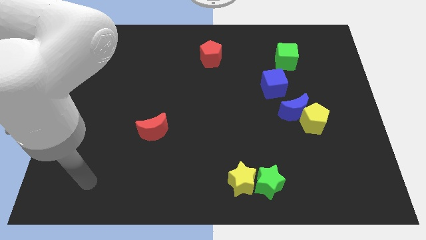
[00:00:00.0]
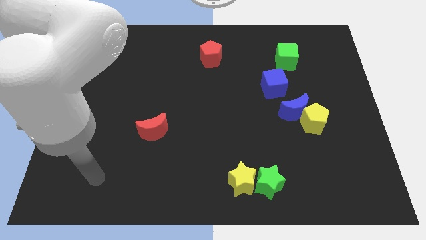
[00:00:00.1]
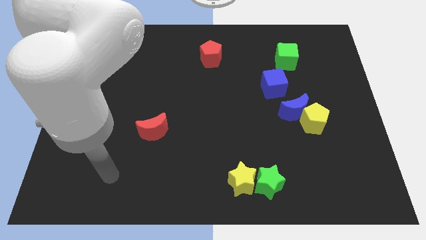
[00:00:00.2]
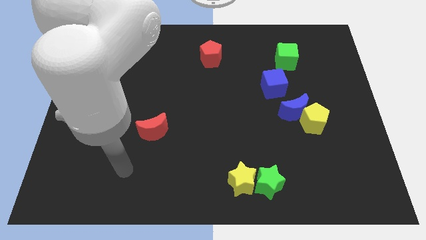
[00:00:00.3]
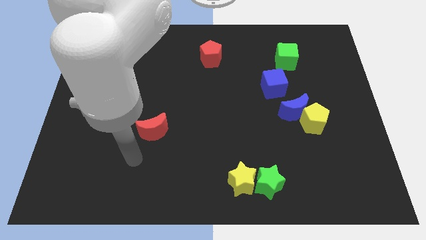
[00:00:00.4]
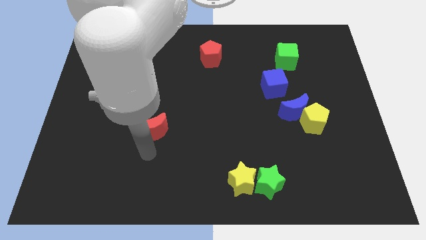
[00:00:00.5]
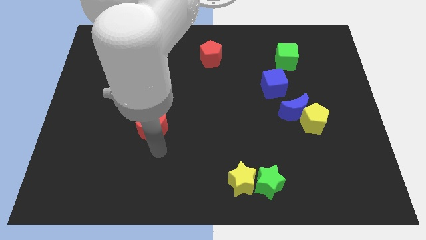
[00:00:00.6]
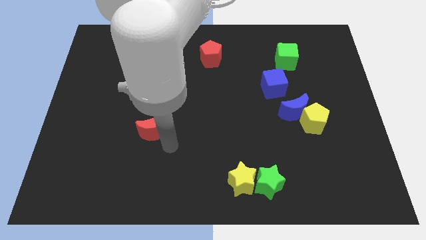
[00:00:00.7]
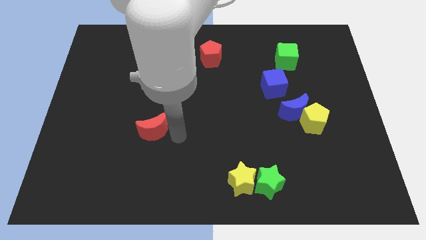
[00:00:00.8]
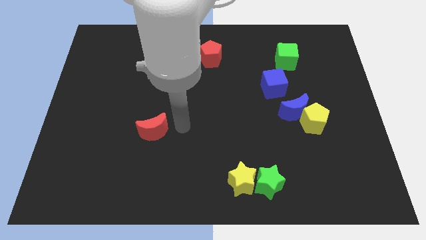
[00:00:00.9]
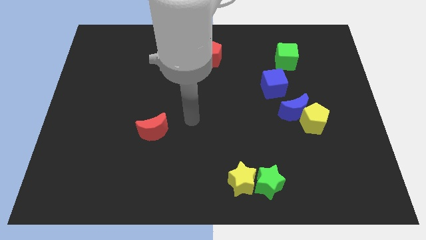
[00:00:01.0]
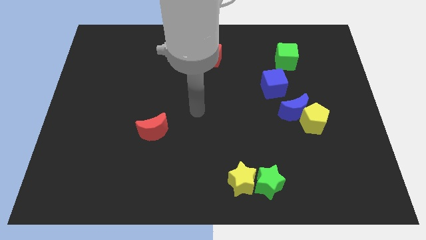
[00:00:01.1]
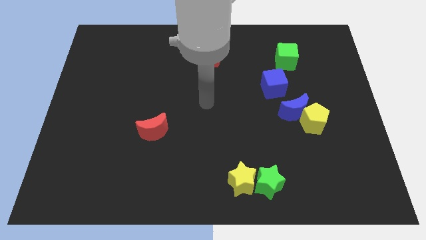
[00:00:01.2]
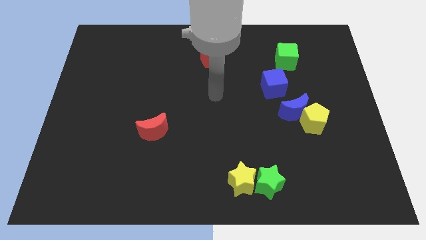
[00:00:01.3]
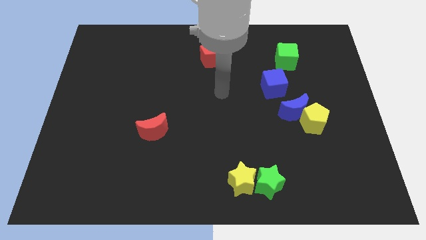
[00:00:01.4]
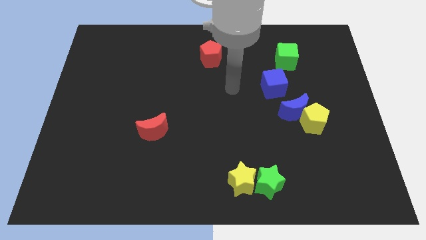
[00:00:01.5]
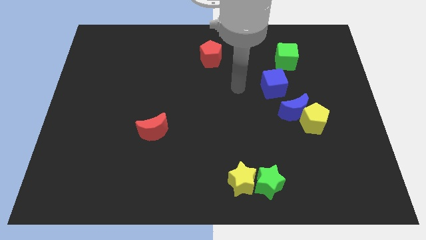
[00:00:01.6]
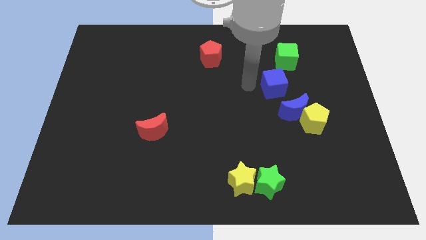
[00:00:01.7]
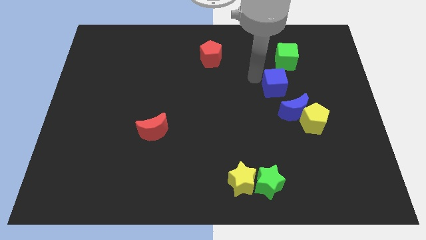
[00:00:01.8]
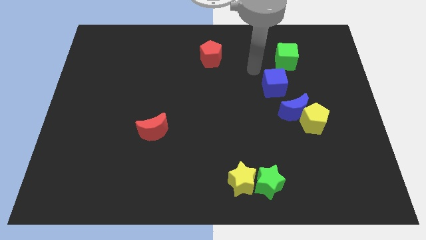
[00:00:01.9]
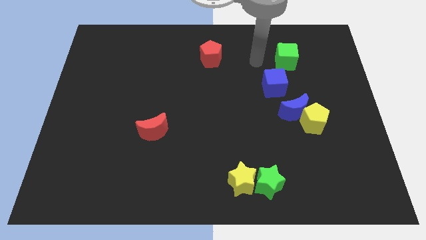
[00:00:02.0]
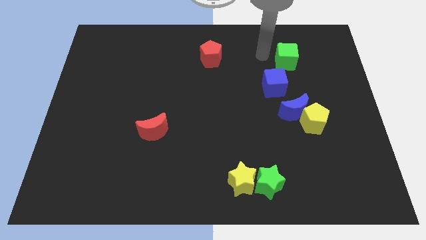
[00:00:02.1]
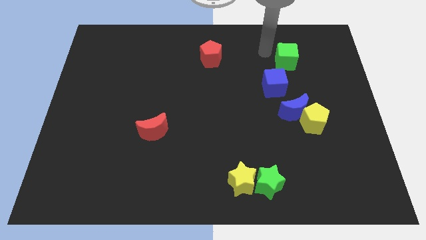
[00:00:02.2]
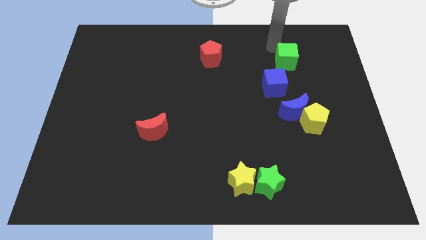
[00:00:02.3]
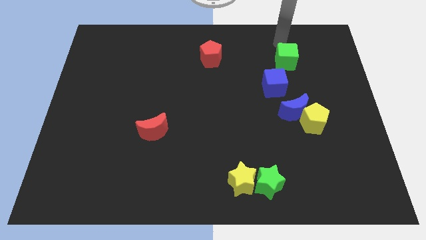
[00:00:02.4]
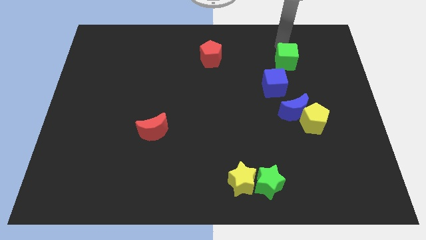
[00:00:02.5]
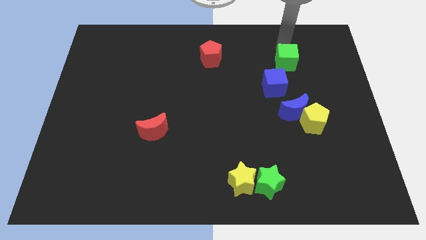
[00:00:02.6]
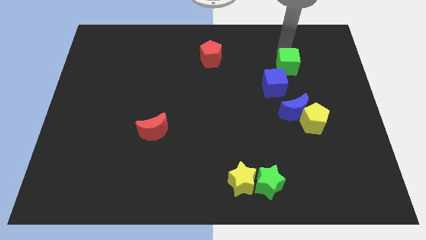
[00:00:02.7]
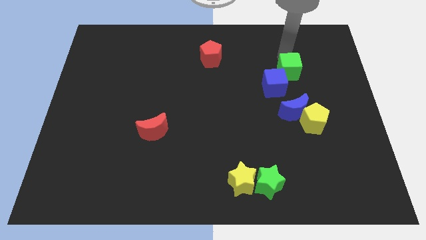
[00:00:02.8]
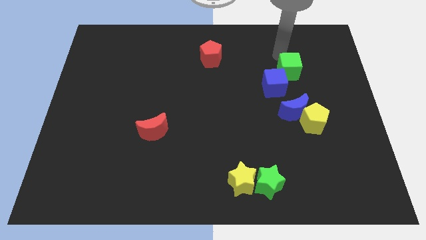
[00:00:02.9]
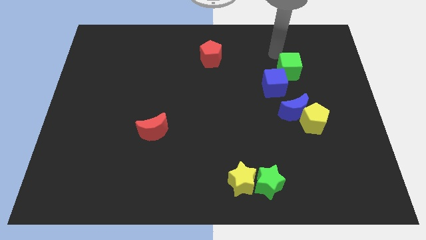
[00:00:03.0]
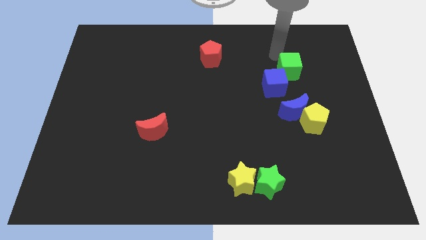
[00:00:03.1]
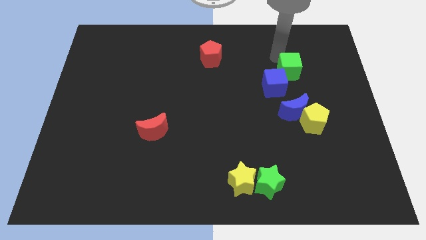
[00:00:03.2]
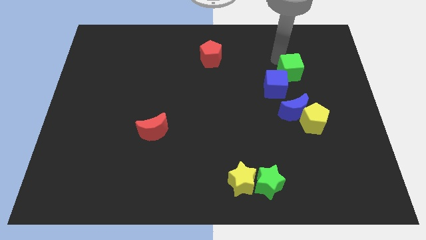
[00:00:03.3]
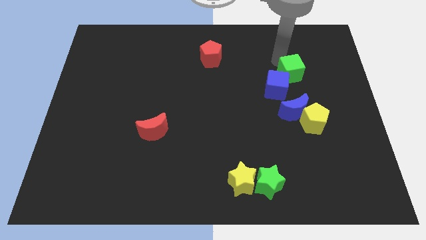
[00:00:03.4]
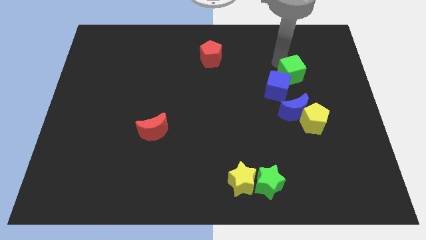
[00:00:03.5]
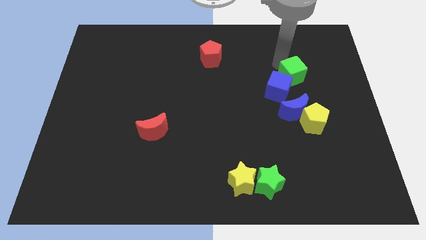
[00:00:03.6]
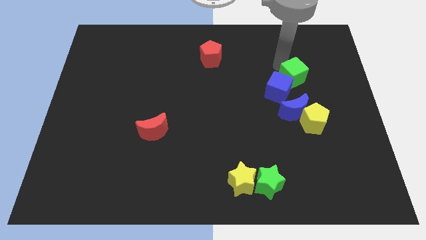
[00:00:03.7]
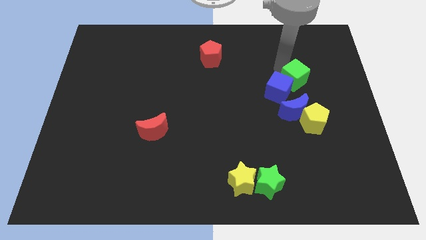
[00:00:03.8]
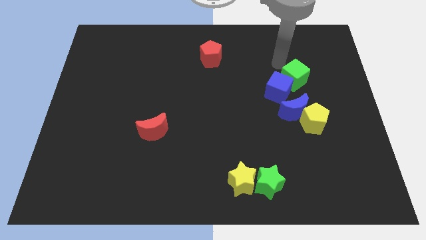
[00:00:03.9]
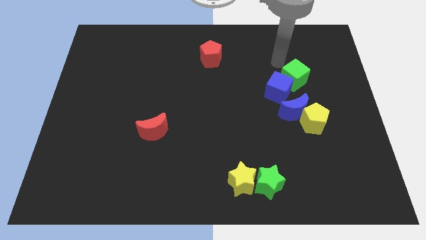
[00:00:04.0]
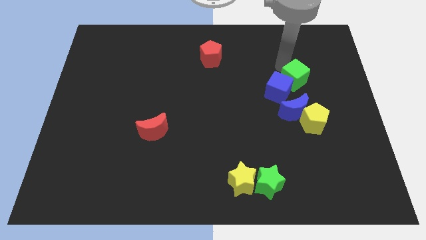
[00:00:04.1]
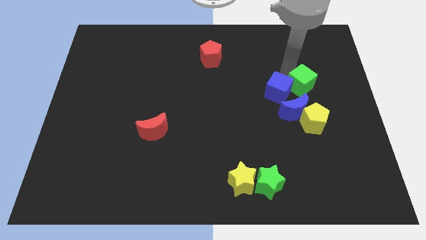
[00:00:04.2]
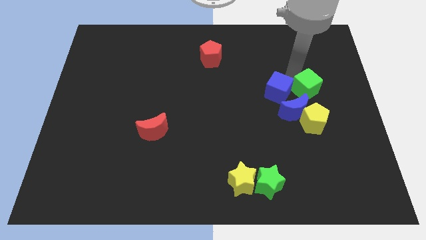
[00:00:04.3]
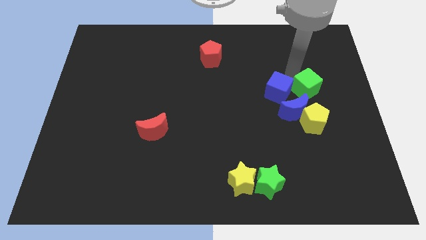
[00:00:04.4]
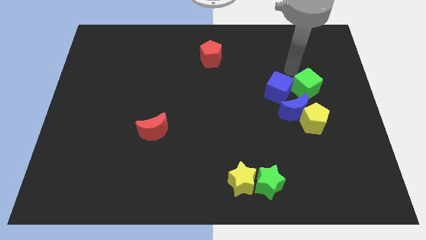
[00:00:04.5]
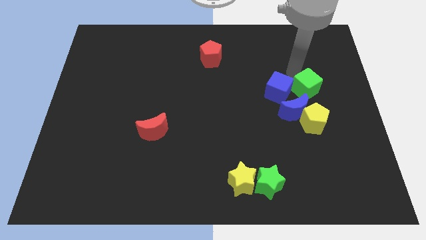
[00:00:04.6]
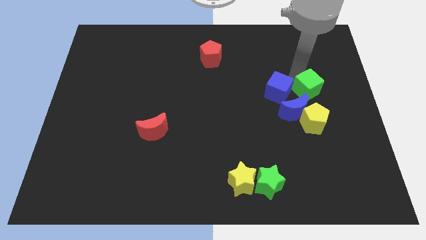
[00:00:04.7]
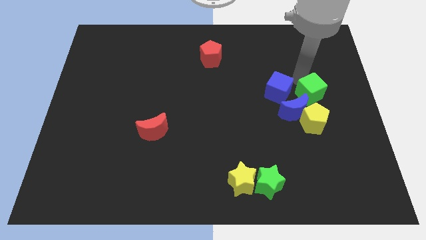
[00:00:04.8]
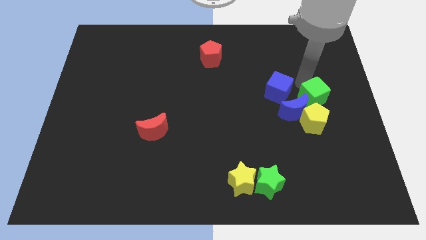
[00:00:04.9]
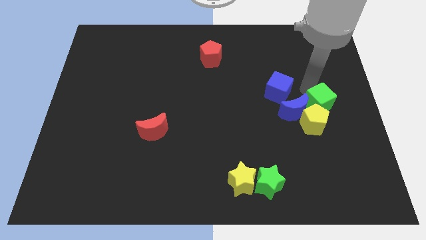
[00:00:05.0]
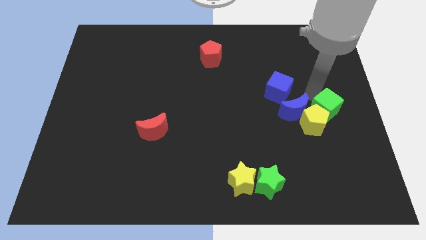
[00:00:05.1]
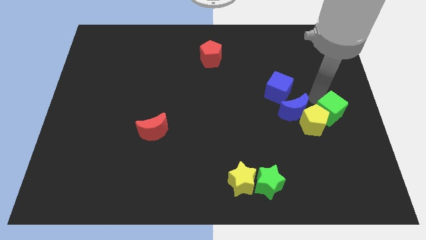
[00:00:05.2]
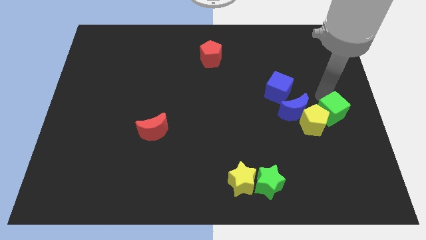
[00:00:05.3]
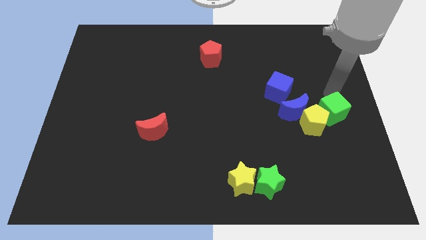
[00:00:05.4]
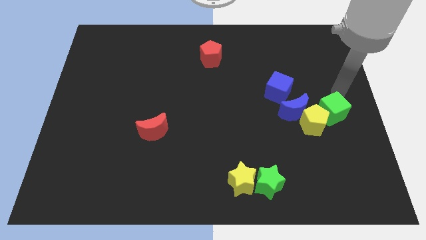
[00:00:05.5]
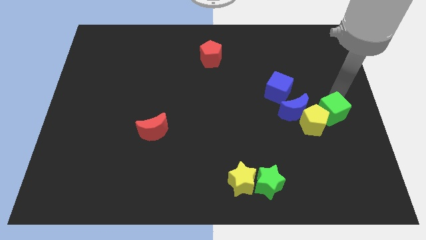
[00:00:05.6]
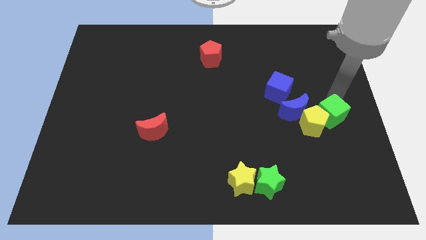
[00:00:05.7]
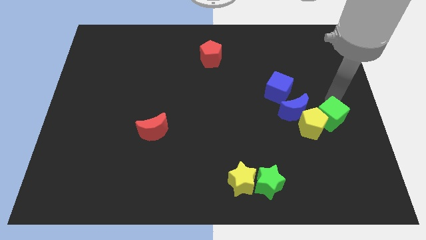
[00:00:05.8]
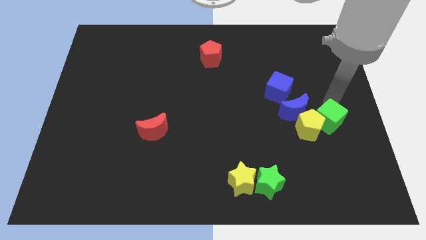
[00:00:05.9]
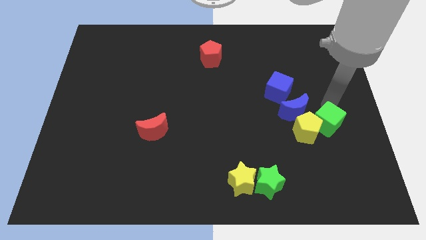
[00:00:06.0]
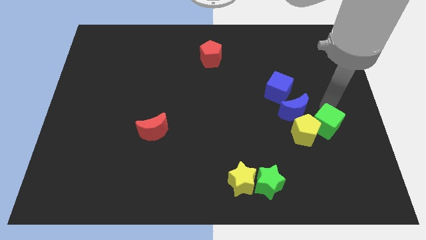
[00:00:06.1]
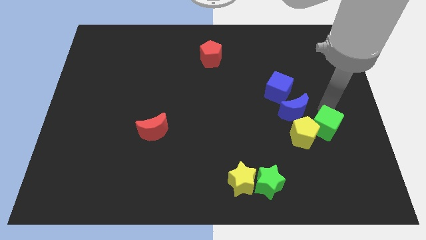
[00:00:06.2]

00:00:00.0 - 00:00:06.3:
move the green cube downwards

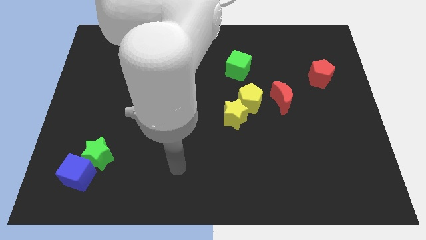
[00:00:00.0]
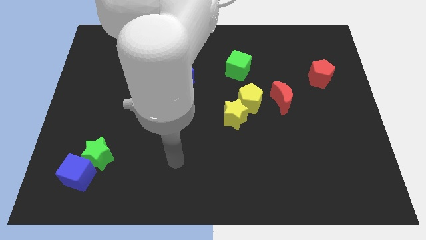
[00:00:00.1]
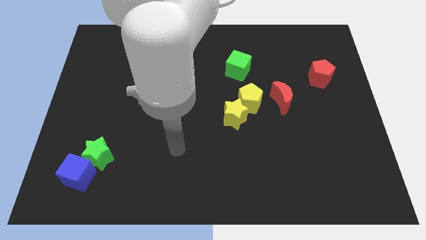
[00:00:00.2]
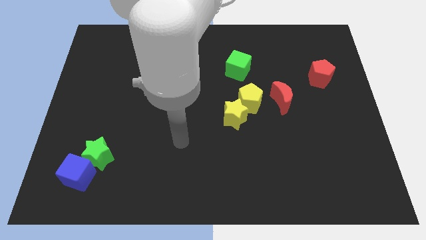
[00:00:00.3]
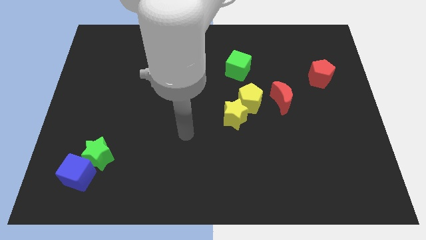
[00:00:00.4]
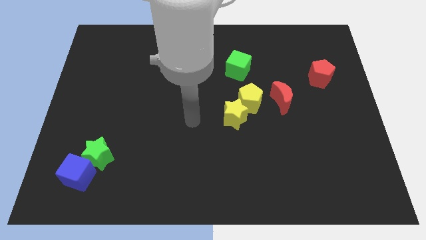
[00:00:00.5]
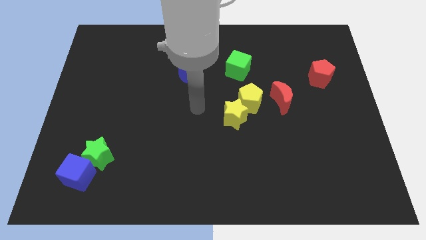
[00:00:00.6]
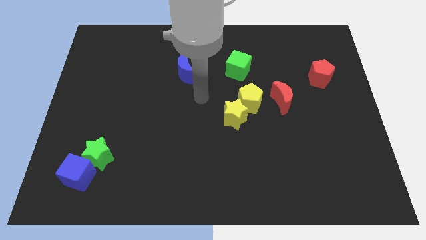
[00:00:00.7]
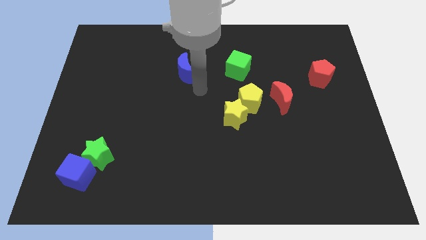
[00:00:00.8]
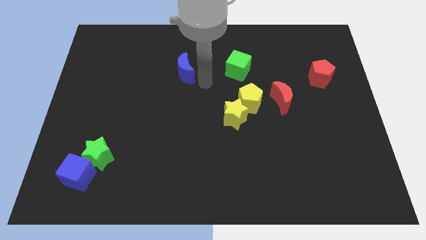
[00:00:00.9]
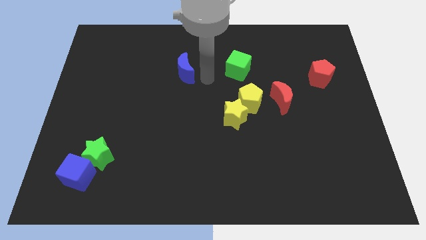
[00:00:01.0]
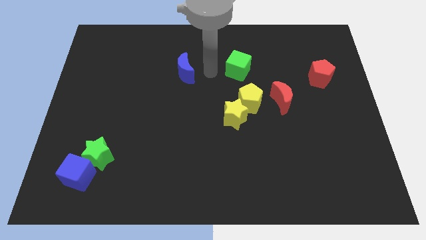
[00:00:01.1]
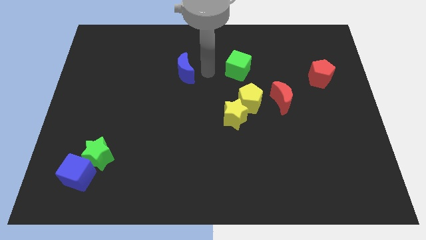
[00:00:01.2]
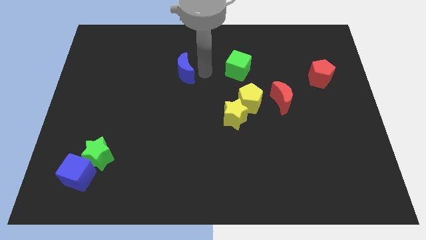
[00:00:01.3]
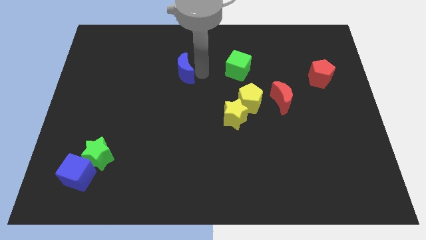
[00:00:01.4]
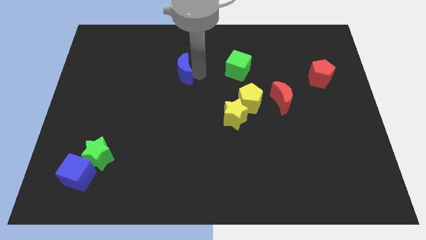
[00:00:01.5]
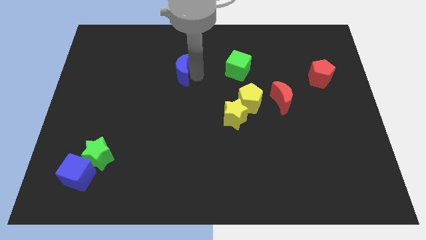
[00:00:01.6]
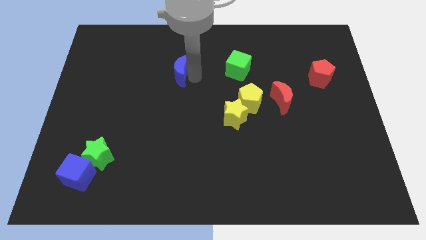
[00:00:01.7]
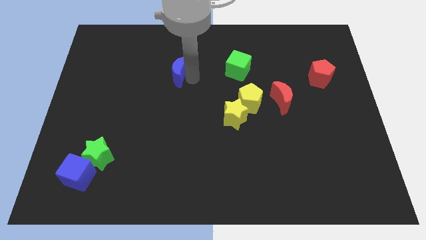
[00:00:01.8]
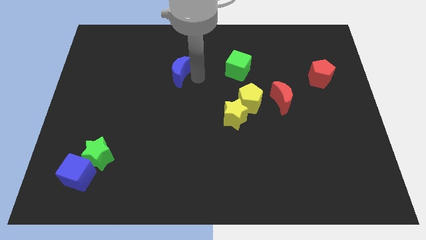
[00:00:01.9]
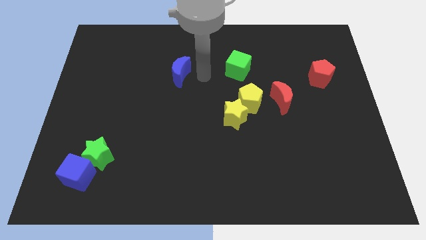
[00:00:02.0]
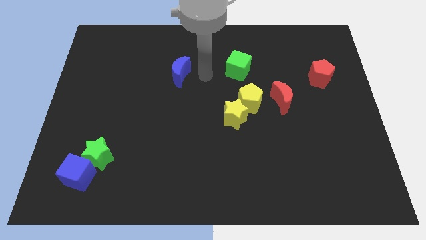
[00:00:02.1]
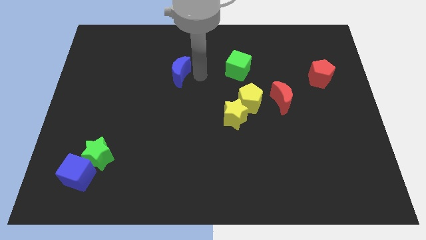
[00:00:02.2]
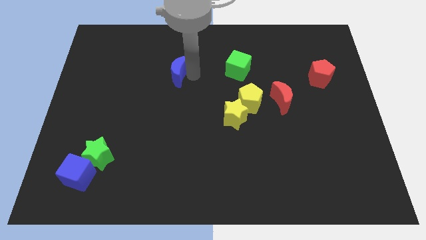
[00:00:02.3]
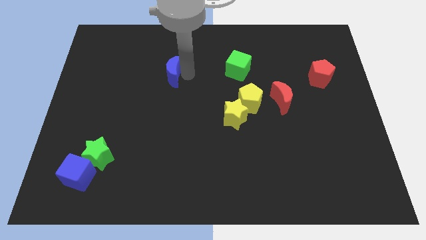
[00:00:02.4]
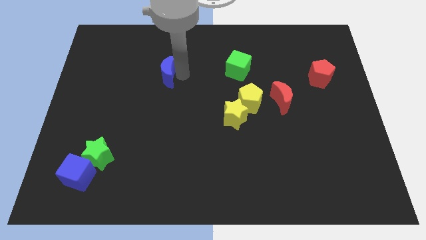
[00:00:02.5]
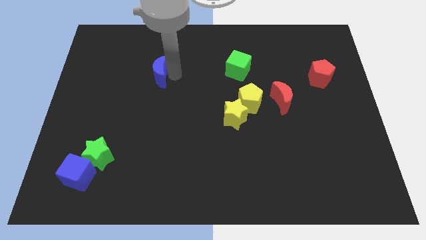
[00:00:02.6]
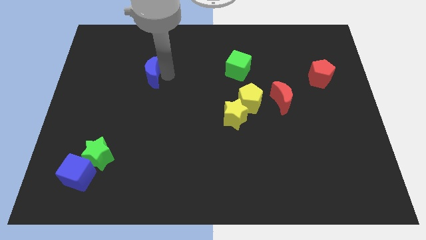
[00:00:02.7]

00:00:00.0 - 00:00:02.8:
slide the blue moon somewhat to the left
